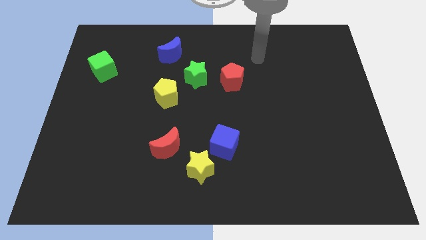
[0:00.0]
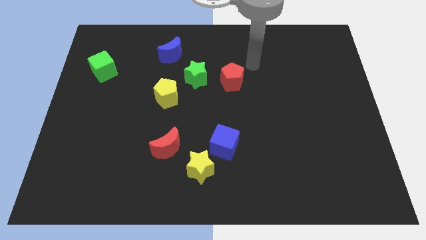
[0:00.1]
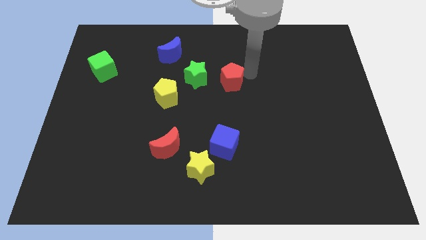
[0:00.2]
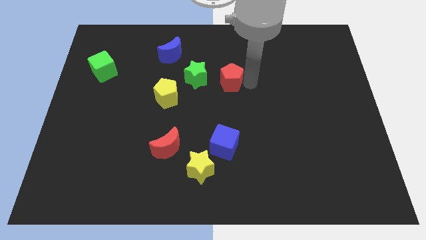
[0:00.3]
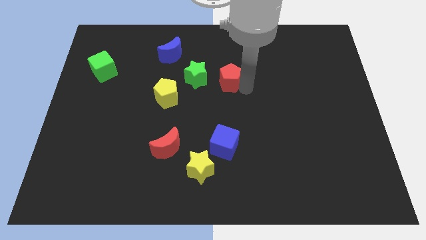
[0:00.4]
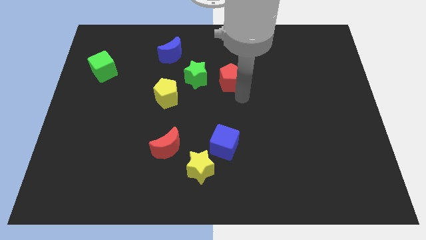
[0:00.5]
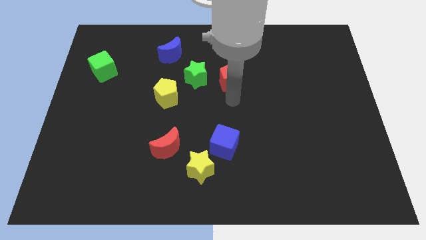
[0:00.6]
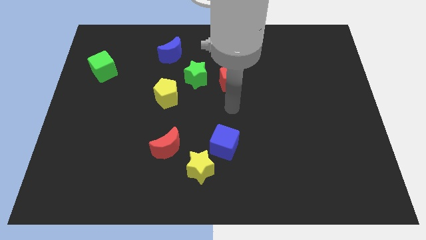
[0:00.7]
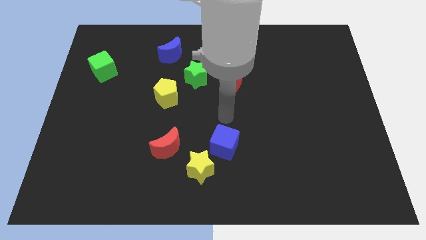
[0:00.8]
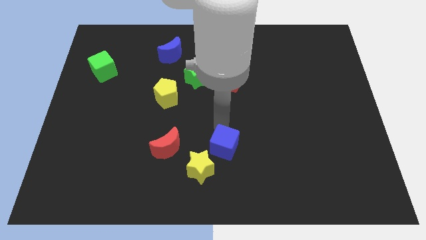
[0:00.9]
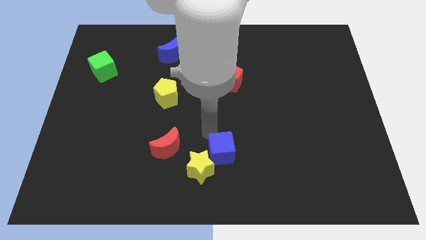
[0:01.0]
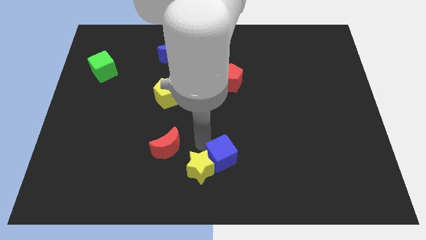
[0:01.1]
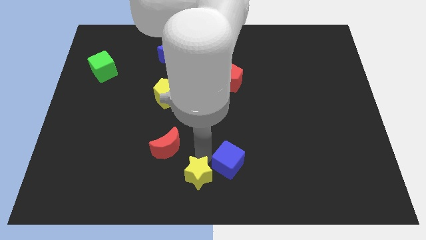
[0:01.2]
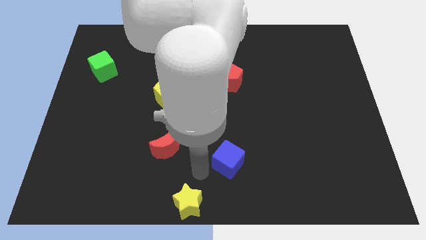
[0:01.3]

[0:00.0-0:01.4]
move the blue cube away from the yellow star

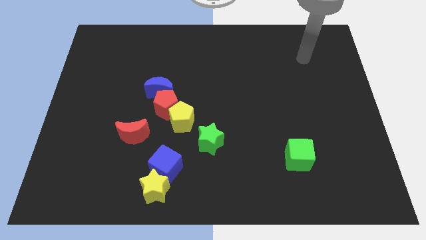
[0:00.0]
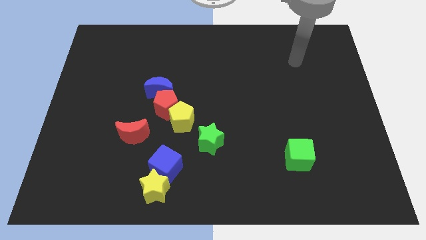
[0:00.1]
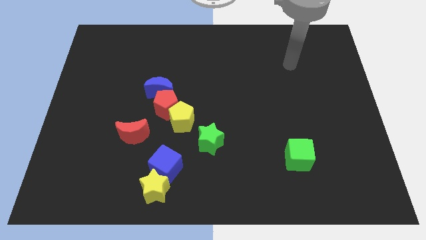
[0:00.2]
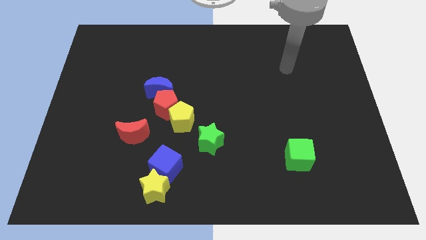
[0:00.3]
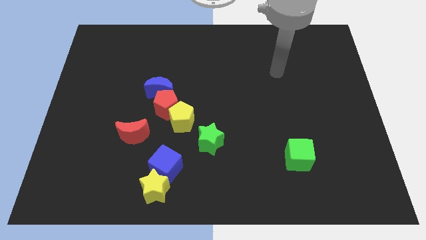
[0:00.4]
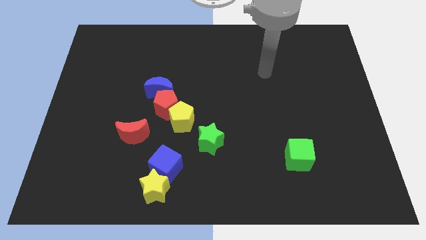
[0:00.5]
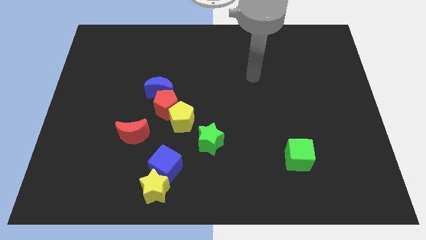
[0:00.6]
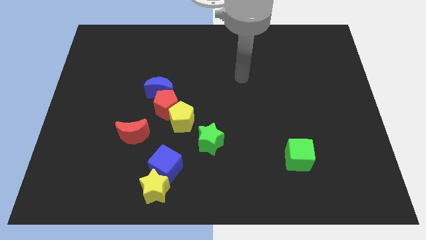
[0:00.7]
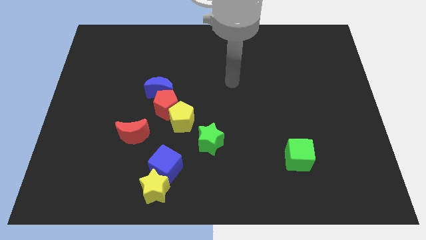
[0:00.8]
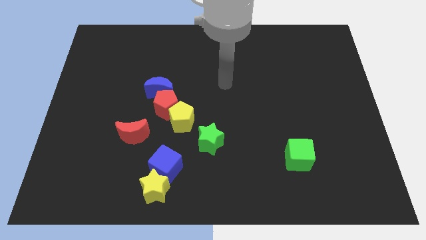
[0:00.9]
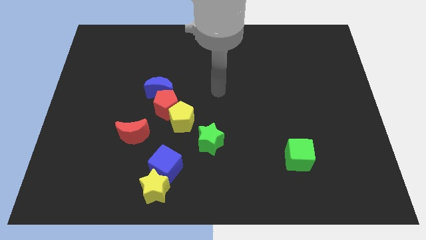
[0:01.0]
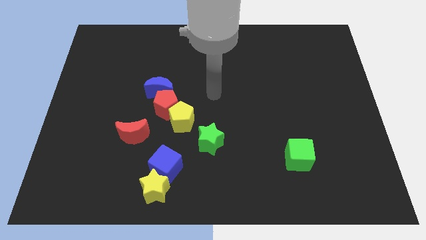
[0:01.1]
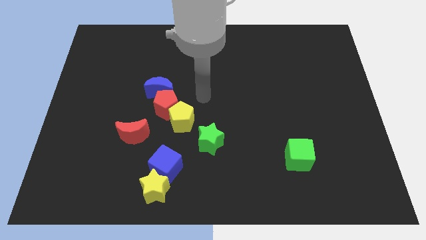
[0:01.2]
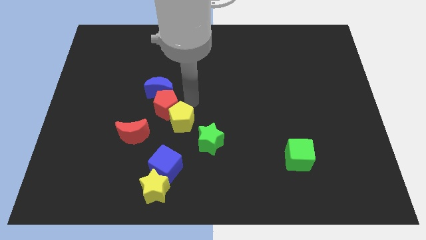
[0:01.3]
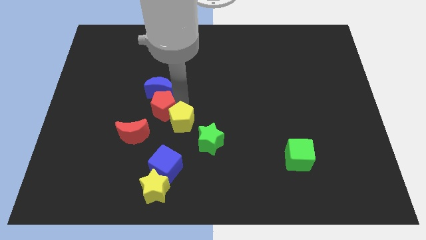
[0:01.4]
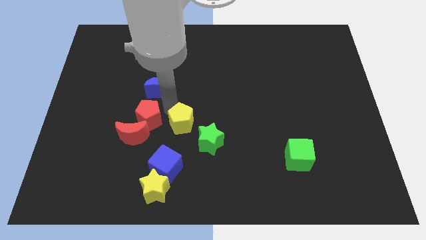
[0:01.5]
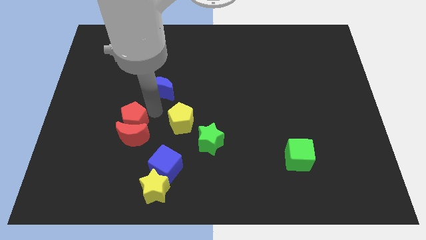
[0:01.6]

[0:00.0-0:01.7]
pull the blue moon apart from the red pentagon

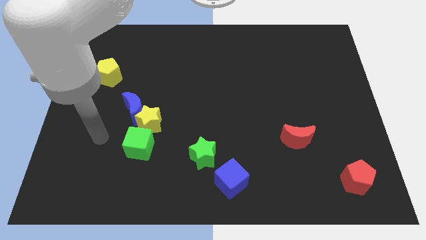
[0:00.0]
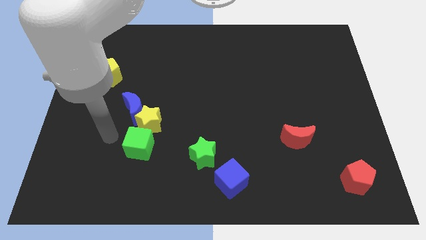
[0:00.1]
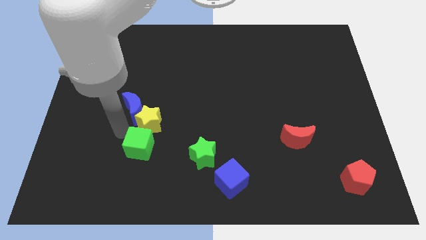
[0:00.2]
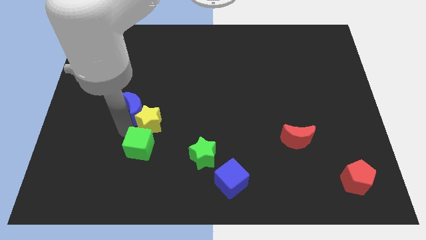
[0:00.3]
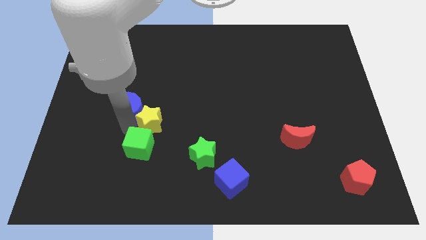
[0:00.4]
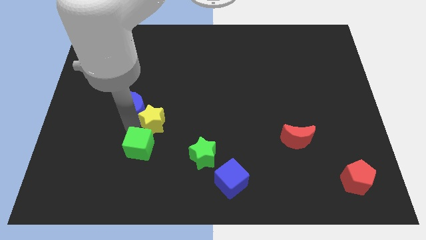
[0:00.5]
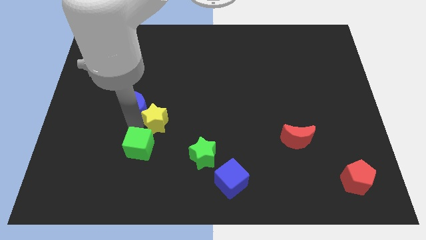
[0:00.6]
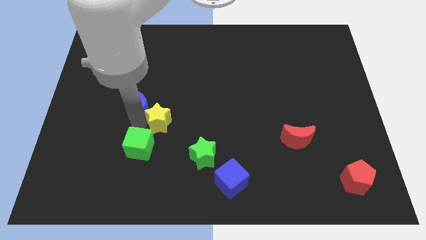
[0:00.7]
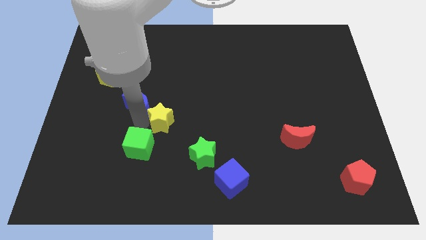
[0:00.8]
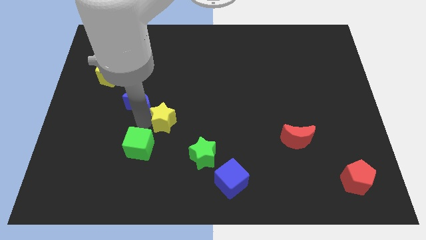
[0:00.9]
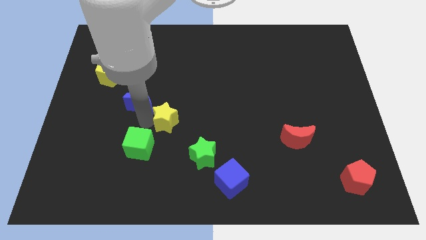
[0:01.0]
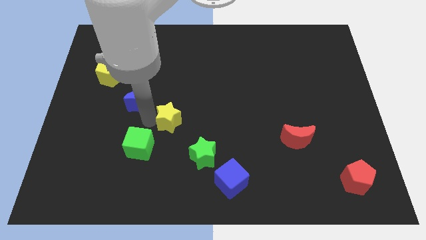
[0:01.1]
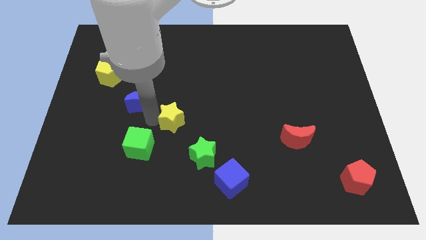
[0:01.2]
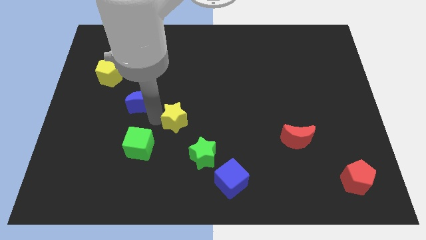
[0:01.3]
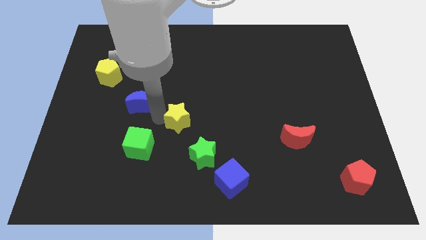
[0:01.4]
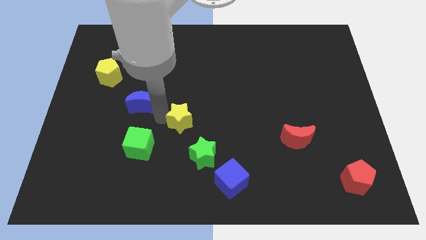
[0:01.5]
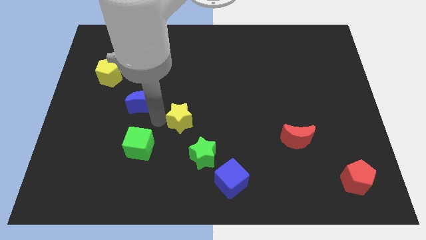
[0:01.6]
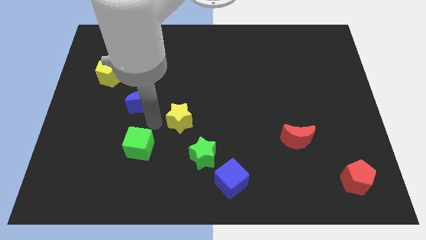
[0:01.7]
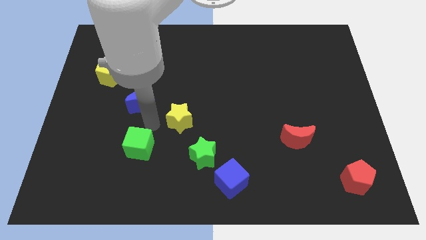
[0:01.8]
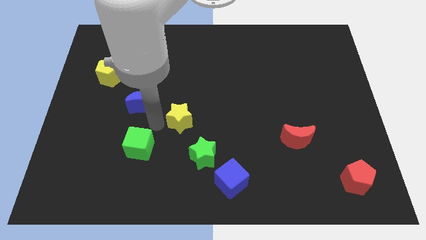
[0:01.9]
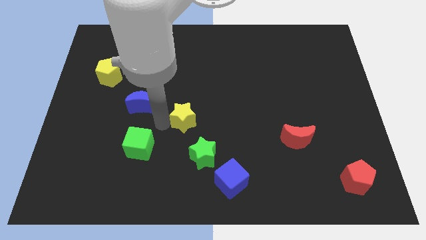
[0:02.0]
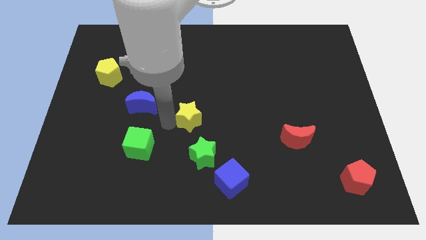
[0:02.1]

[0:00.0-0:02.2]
separate the yellow star from the blue moon and green cube

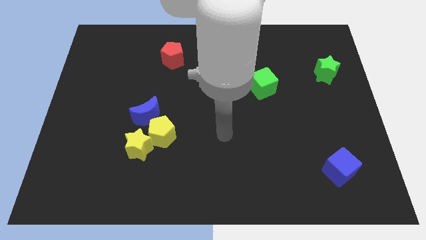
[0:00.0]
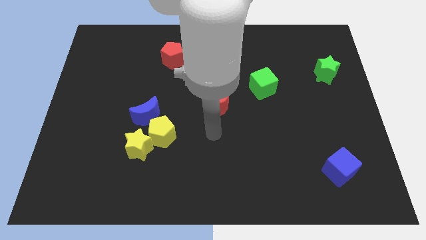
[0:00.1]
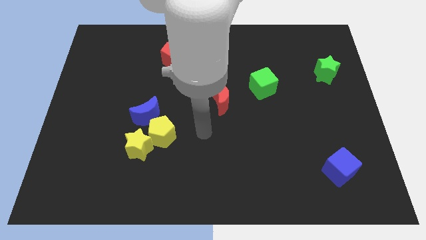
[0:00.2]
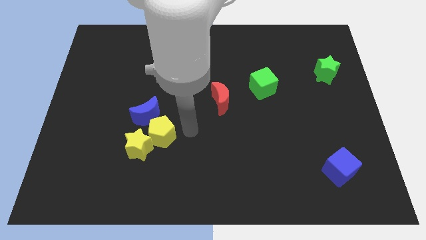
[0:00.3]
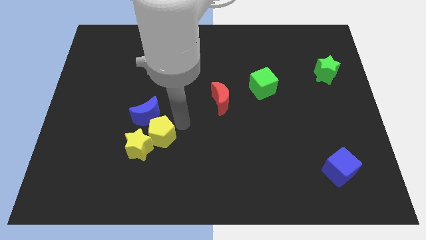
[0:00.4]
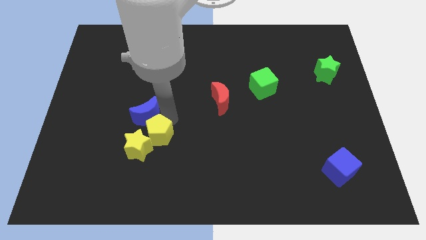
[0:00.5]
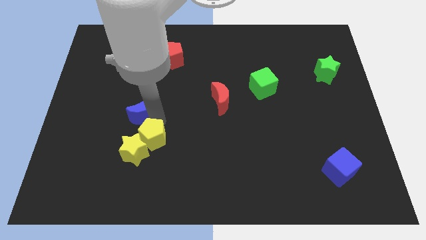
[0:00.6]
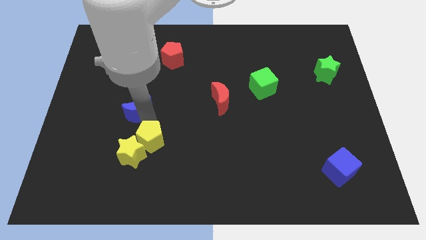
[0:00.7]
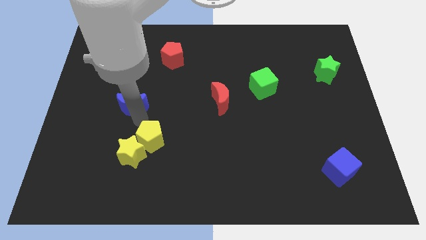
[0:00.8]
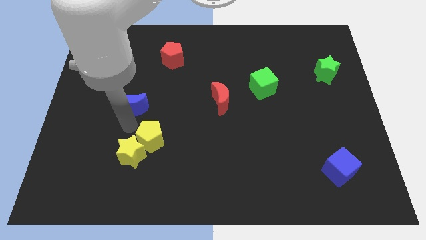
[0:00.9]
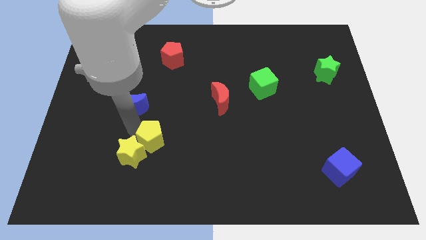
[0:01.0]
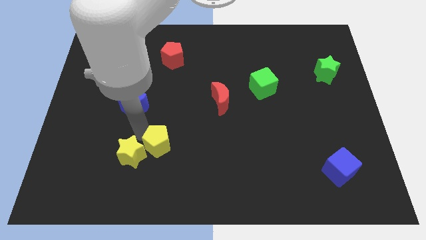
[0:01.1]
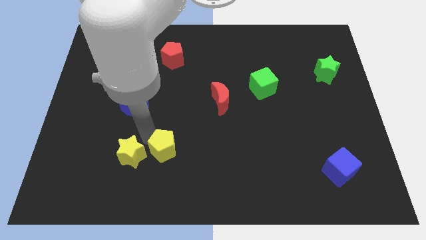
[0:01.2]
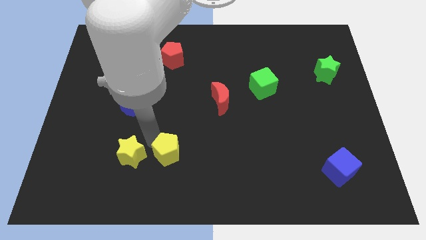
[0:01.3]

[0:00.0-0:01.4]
move the yellow pentagon away from the yellow star and blue moon

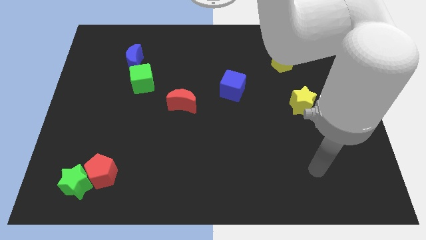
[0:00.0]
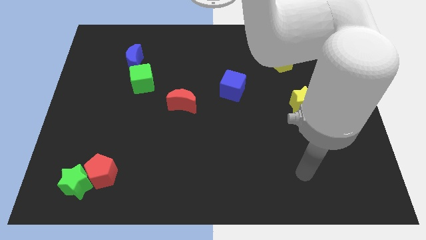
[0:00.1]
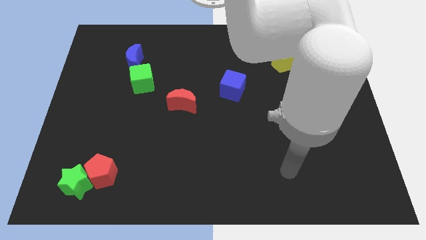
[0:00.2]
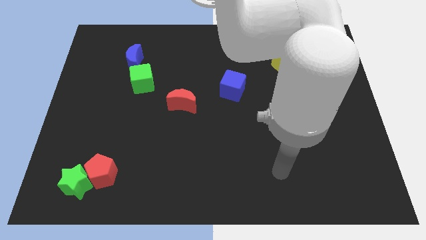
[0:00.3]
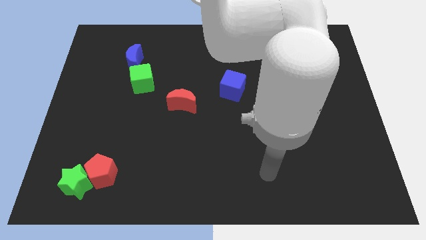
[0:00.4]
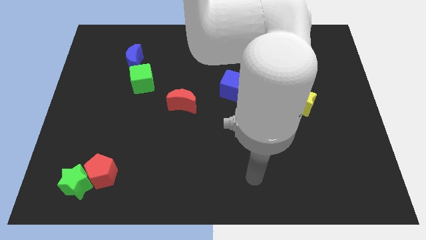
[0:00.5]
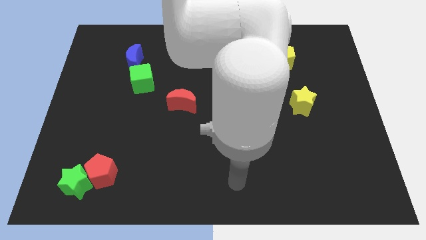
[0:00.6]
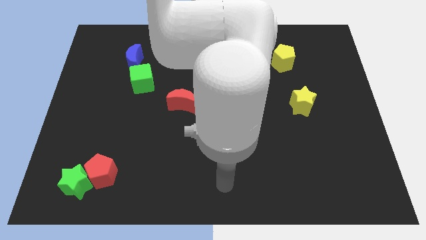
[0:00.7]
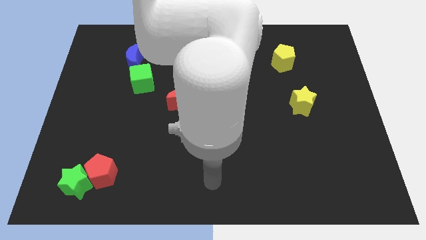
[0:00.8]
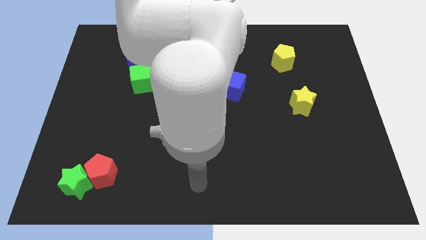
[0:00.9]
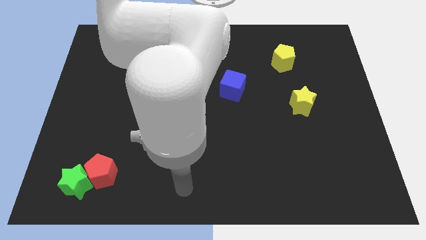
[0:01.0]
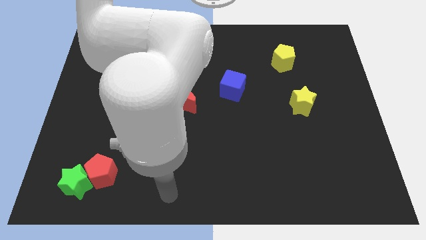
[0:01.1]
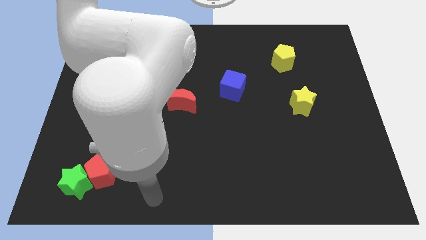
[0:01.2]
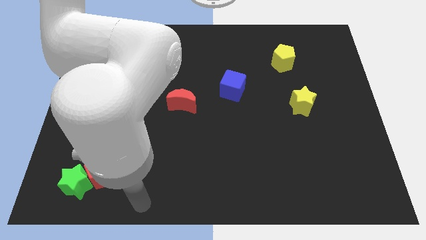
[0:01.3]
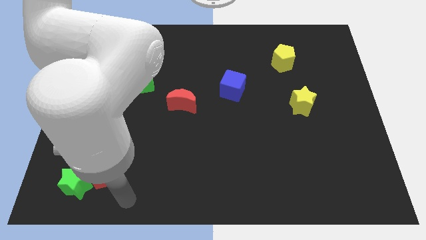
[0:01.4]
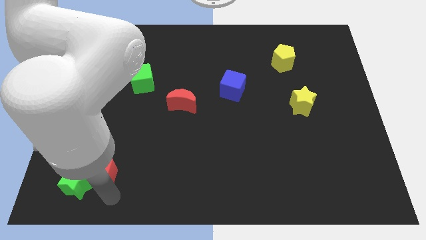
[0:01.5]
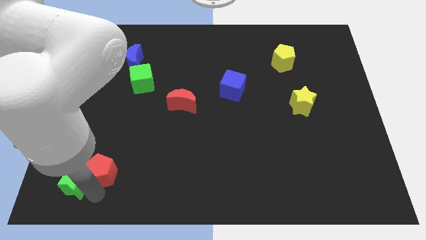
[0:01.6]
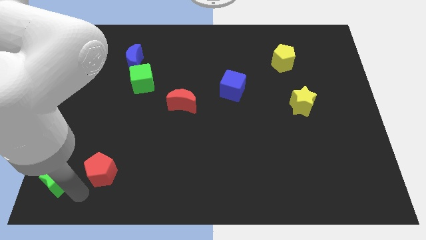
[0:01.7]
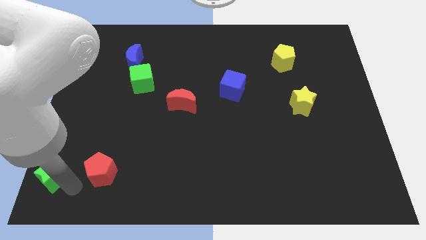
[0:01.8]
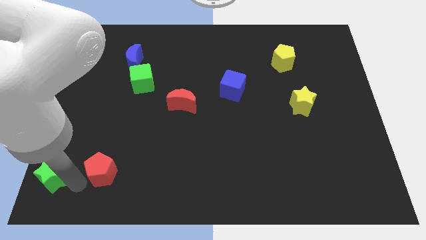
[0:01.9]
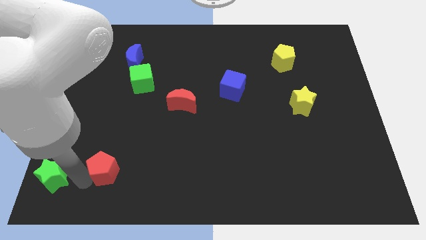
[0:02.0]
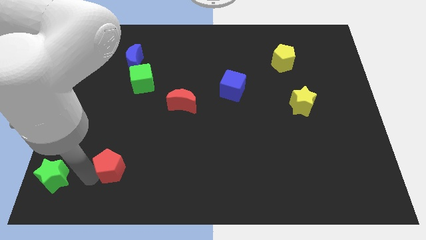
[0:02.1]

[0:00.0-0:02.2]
separate the red pentagon from the green star

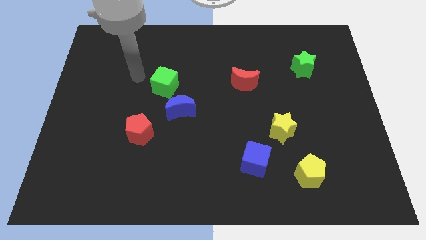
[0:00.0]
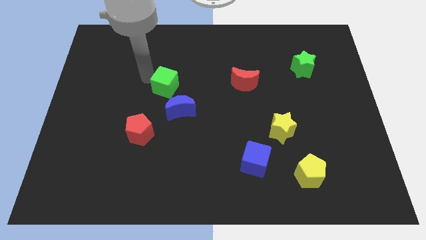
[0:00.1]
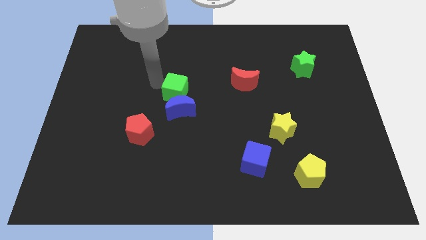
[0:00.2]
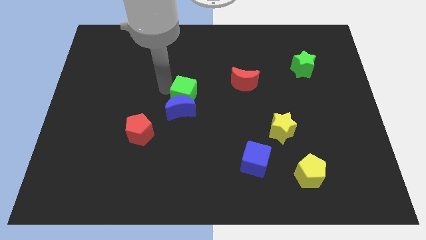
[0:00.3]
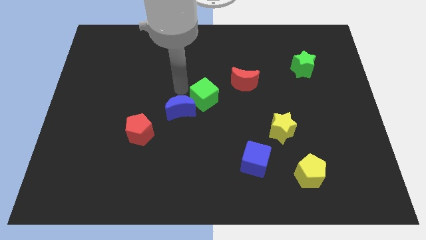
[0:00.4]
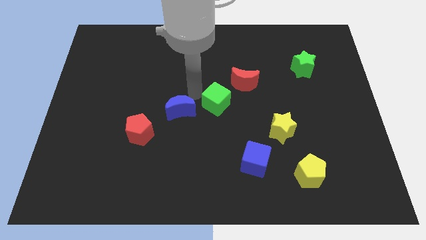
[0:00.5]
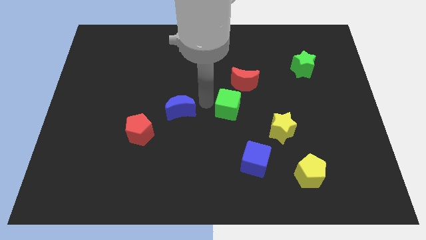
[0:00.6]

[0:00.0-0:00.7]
move the blue moon away from the green cube
